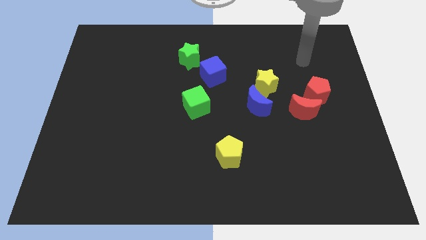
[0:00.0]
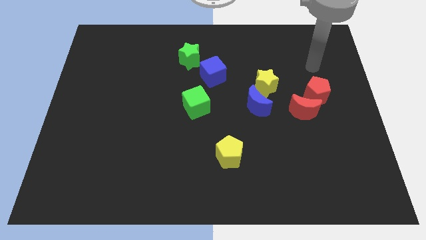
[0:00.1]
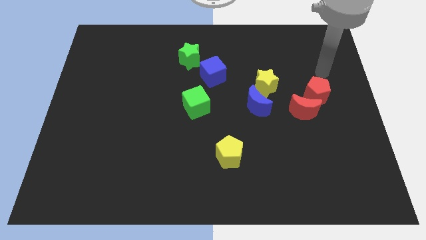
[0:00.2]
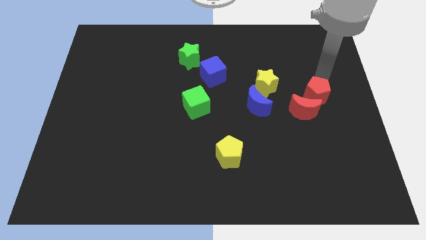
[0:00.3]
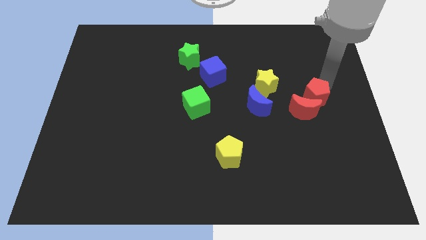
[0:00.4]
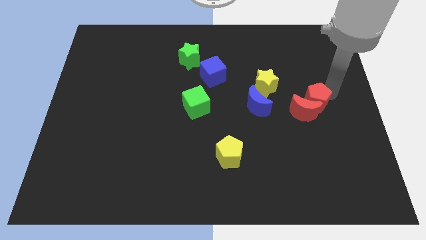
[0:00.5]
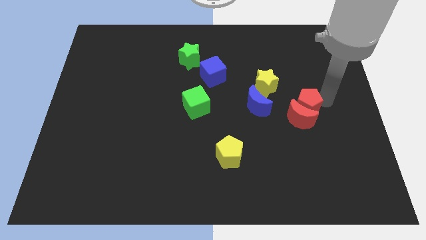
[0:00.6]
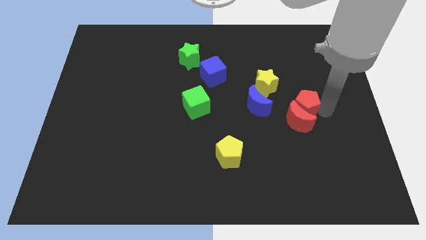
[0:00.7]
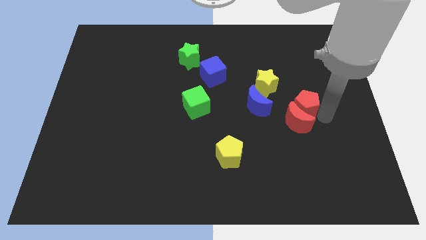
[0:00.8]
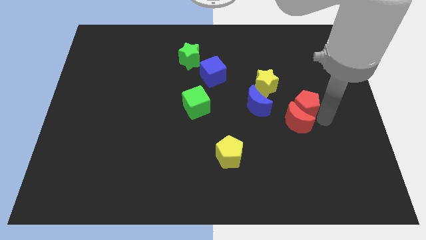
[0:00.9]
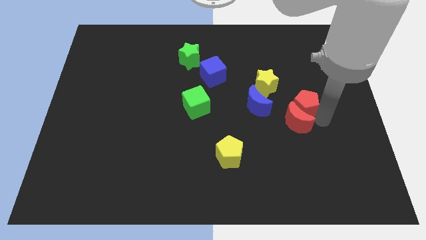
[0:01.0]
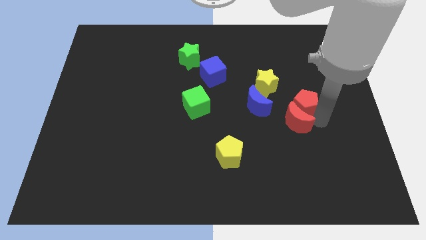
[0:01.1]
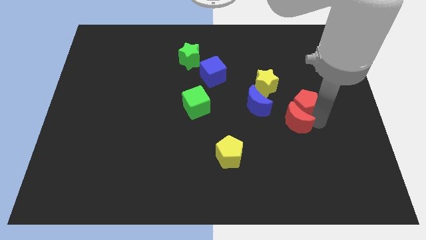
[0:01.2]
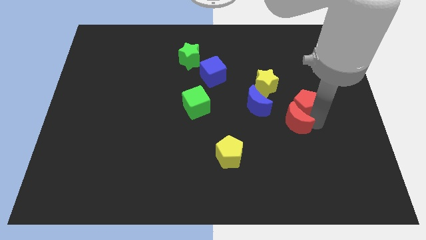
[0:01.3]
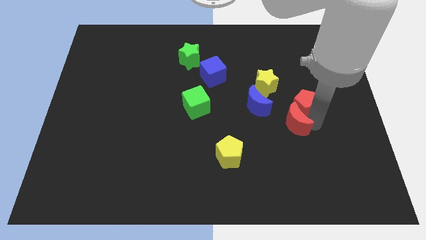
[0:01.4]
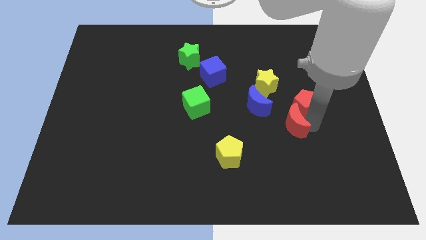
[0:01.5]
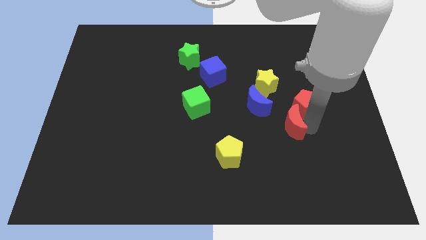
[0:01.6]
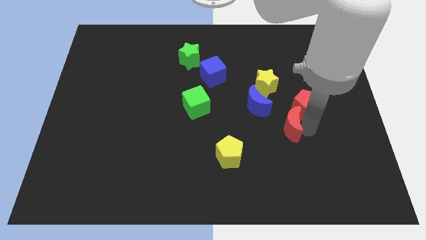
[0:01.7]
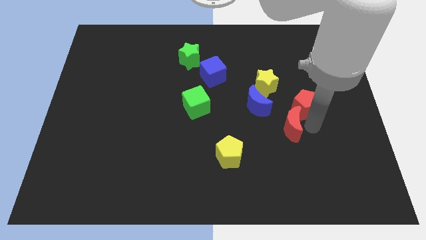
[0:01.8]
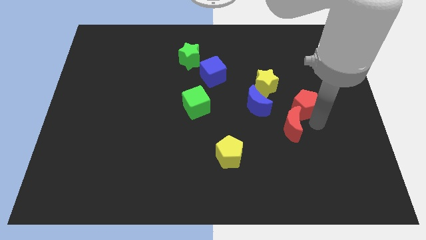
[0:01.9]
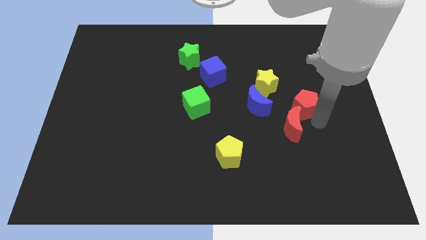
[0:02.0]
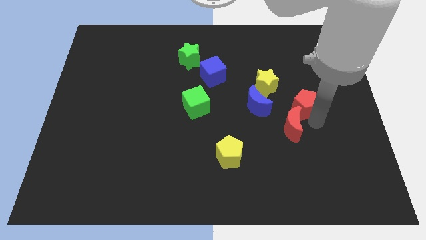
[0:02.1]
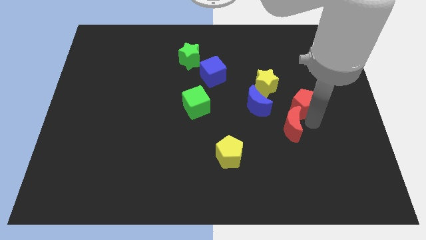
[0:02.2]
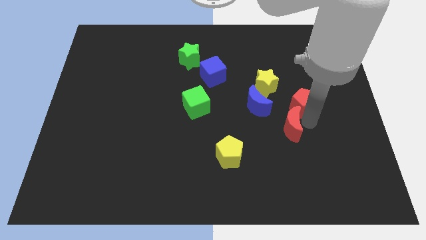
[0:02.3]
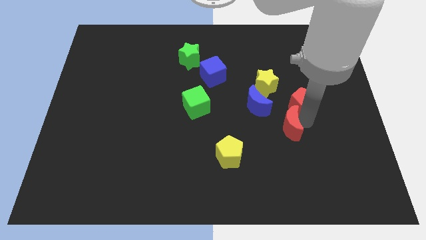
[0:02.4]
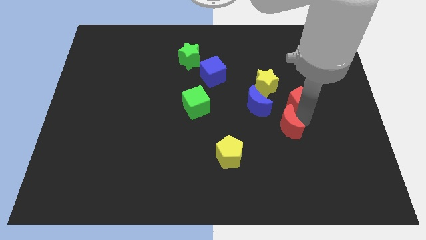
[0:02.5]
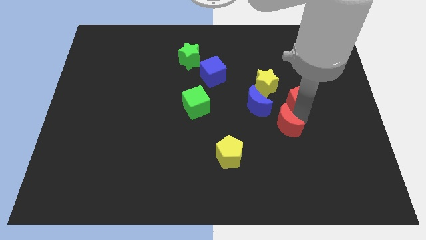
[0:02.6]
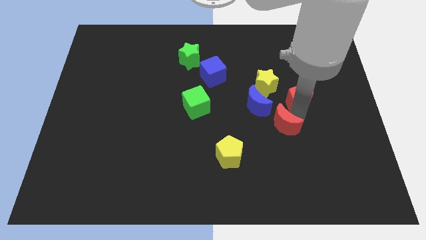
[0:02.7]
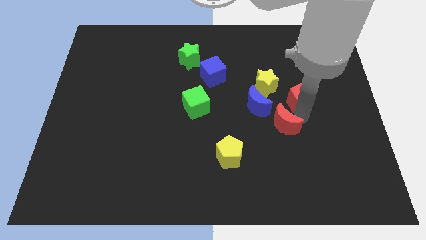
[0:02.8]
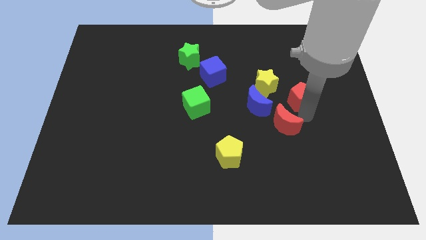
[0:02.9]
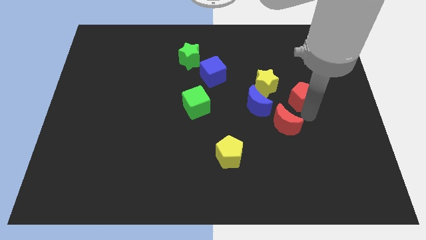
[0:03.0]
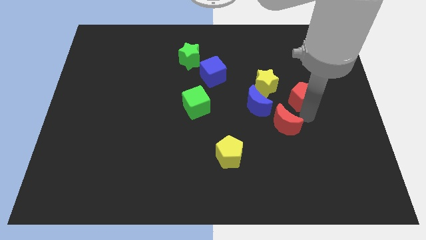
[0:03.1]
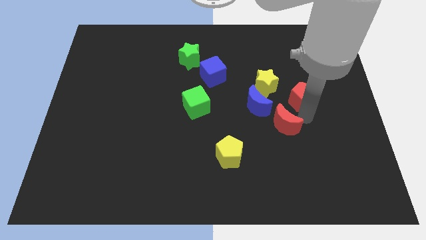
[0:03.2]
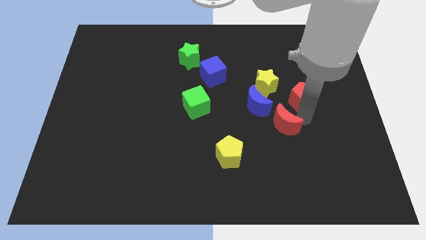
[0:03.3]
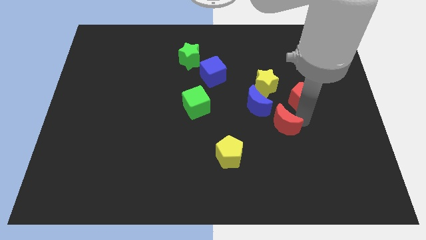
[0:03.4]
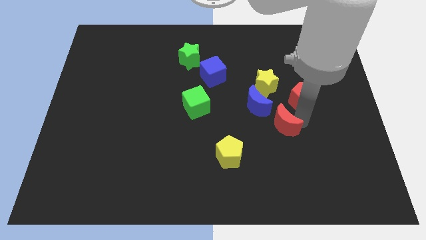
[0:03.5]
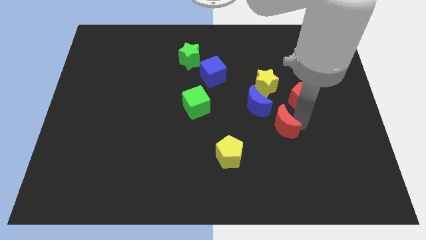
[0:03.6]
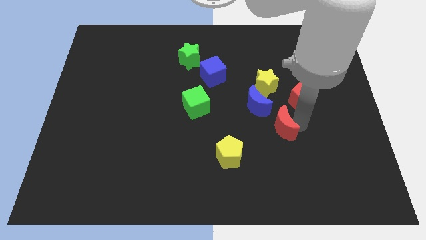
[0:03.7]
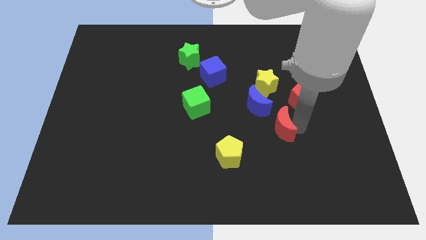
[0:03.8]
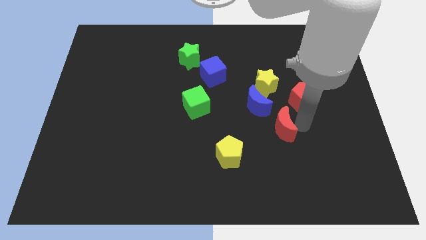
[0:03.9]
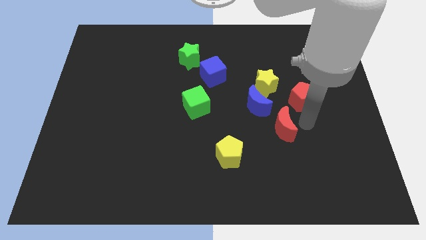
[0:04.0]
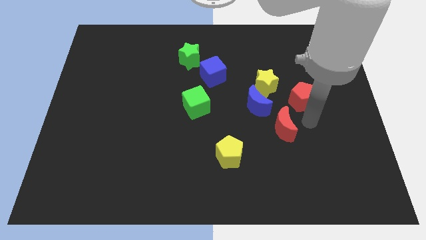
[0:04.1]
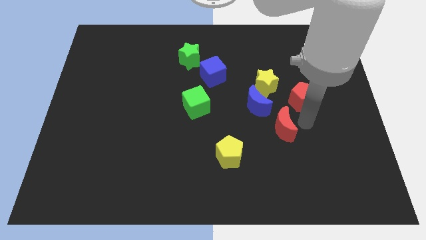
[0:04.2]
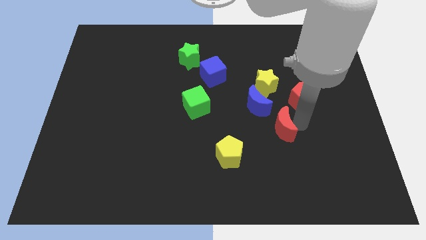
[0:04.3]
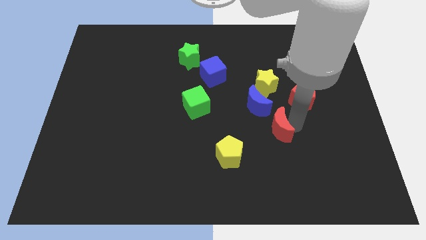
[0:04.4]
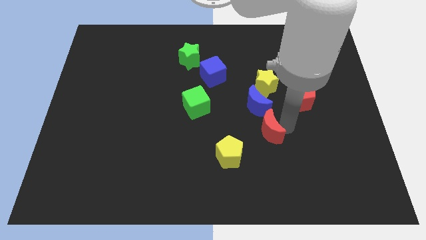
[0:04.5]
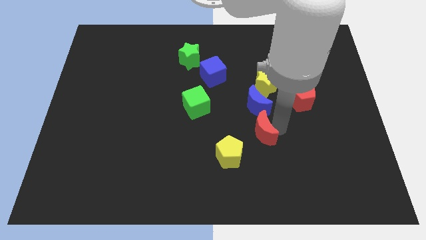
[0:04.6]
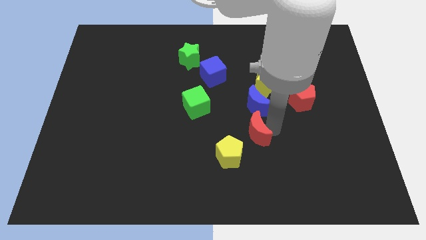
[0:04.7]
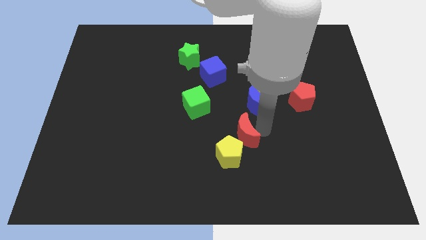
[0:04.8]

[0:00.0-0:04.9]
put the red moon to the yellow pentagon

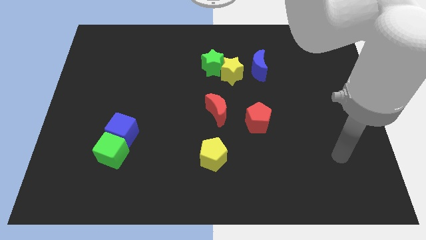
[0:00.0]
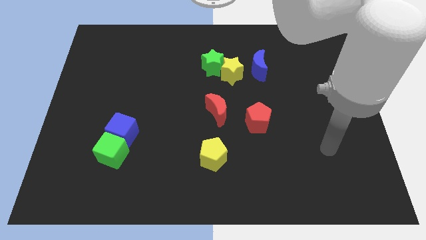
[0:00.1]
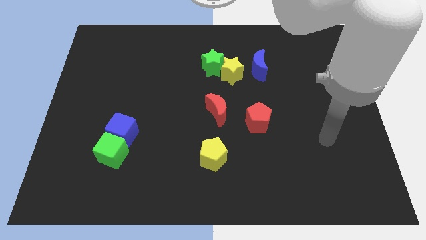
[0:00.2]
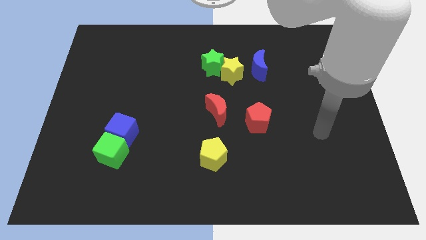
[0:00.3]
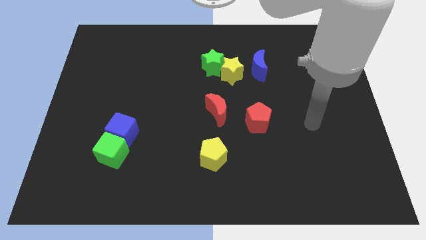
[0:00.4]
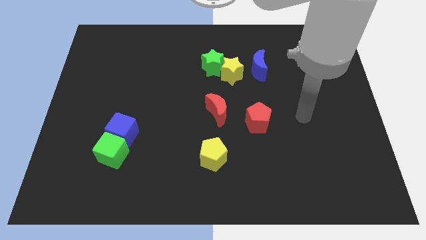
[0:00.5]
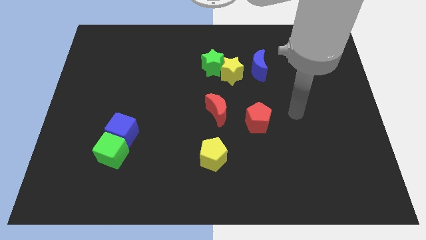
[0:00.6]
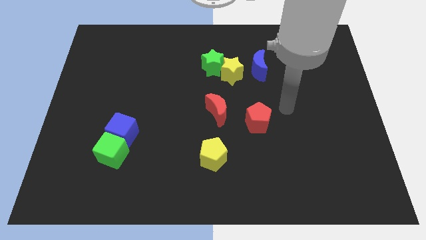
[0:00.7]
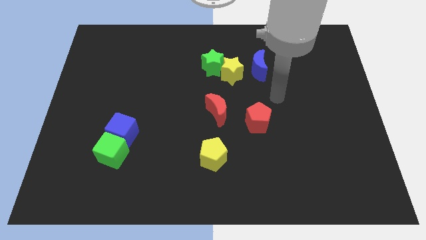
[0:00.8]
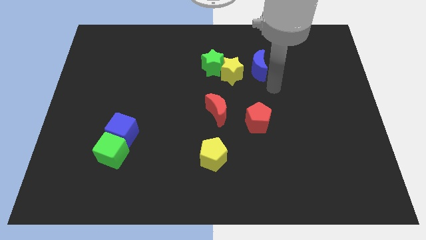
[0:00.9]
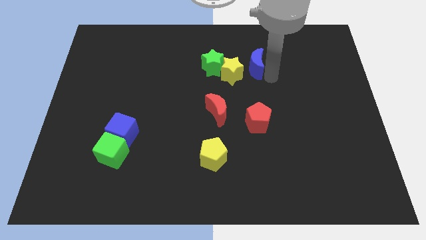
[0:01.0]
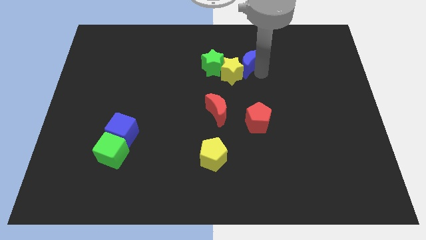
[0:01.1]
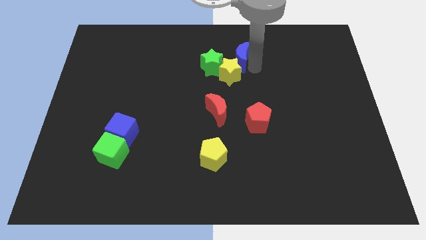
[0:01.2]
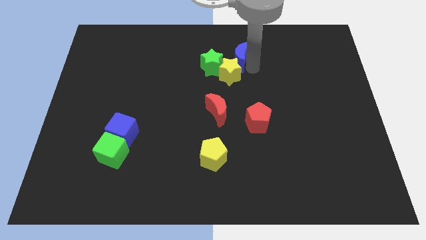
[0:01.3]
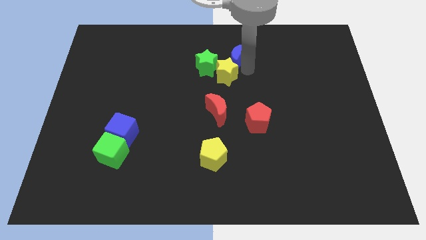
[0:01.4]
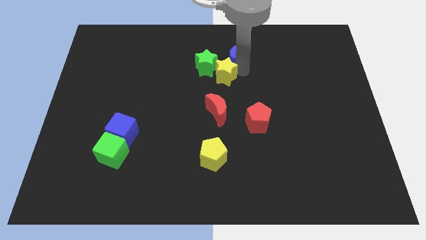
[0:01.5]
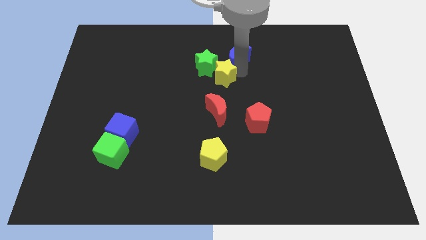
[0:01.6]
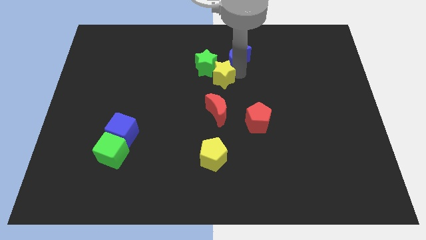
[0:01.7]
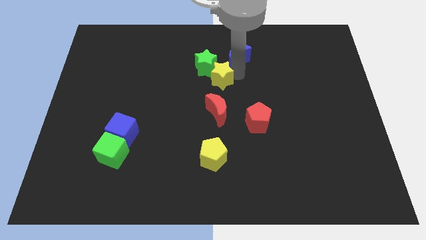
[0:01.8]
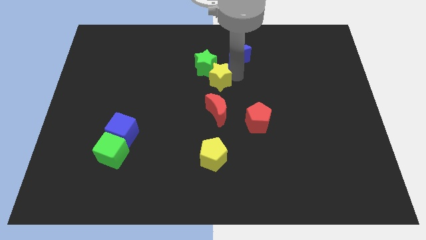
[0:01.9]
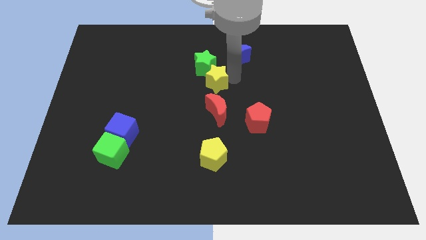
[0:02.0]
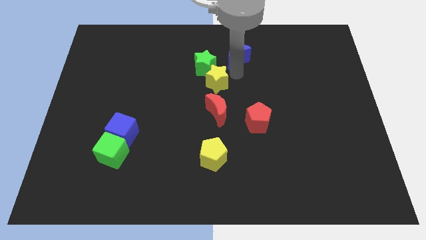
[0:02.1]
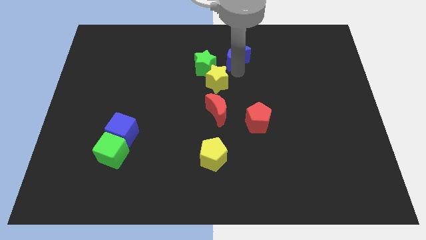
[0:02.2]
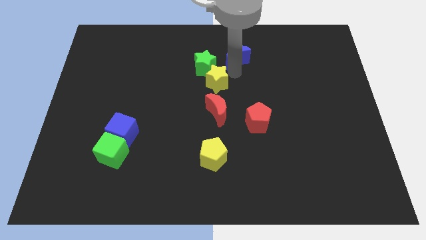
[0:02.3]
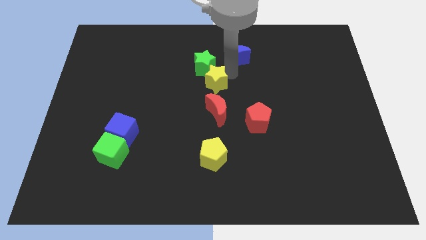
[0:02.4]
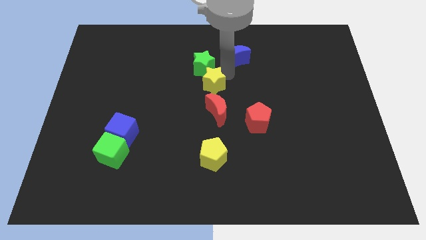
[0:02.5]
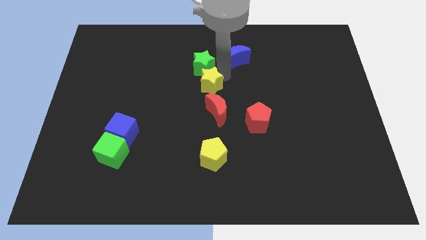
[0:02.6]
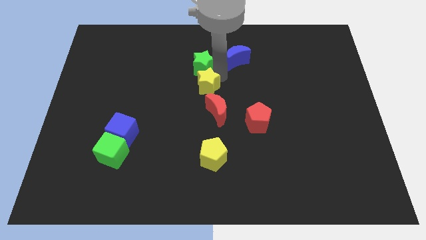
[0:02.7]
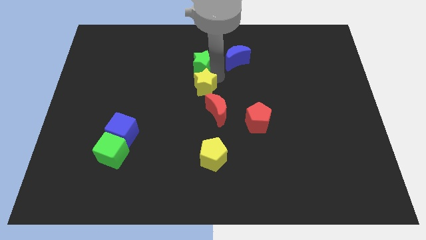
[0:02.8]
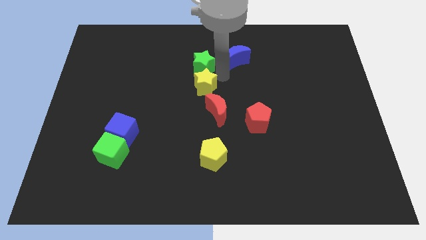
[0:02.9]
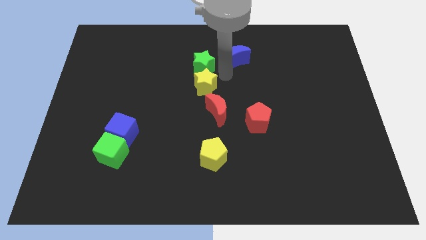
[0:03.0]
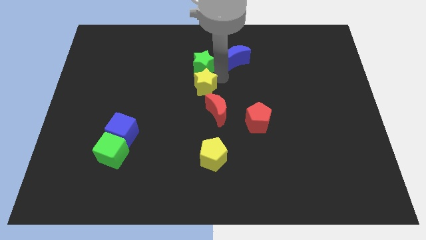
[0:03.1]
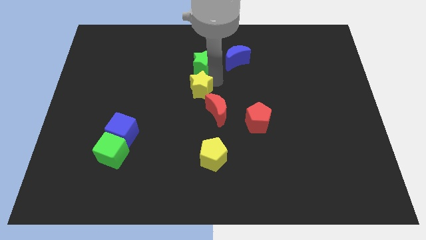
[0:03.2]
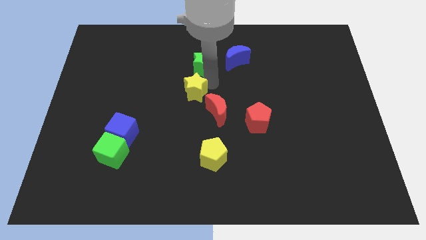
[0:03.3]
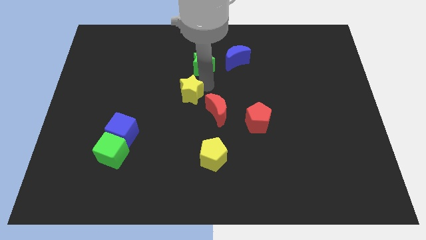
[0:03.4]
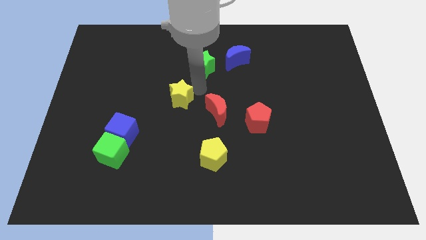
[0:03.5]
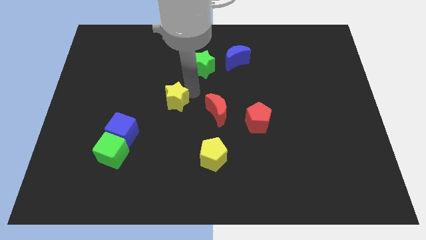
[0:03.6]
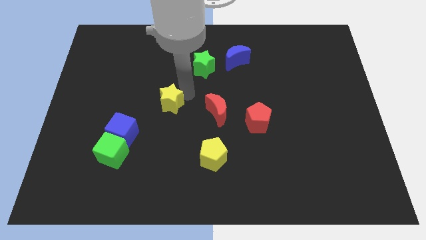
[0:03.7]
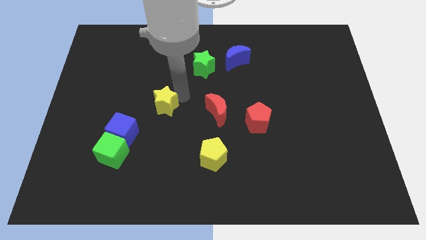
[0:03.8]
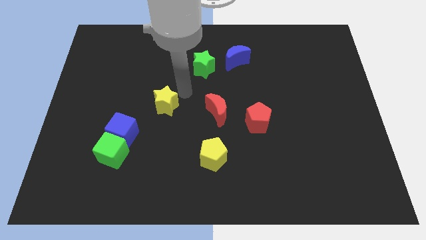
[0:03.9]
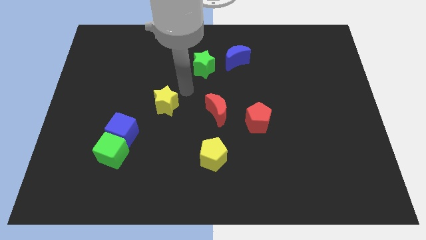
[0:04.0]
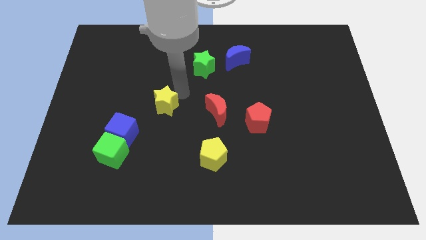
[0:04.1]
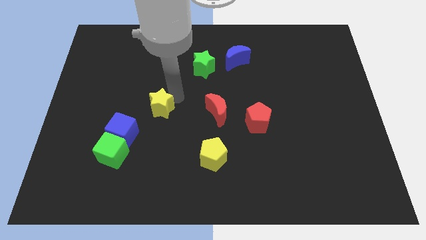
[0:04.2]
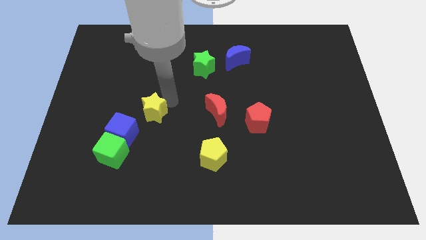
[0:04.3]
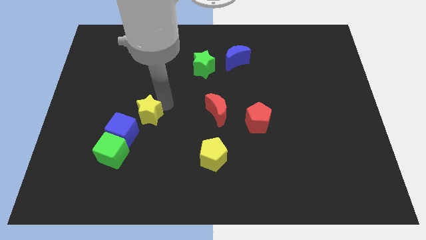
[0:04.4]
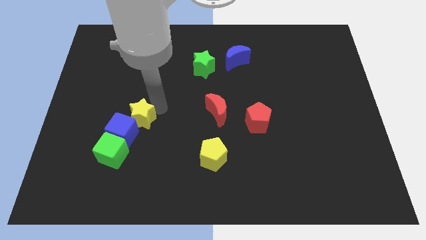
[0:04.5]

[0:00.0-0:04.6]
slide the yellow star towards the blue cube
